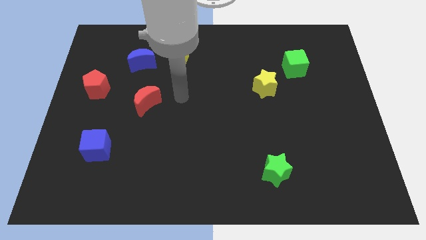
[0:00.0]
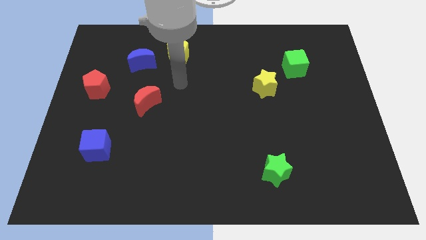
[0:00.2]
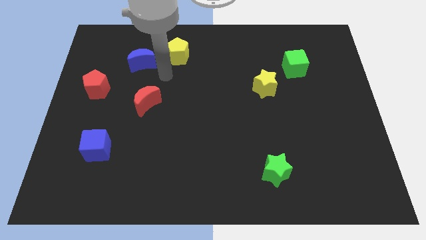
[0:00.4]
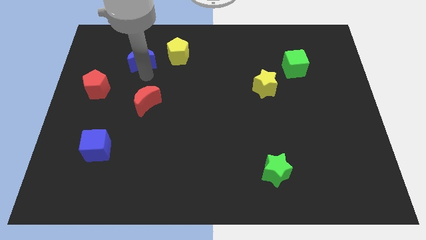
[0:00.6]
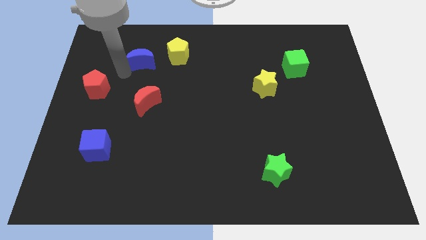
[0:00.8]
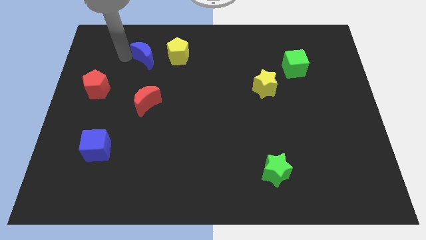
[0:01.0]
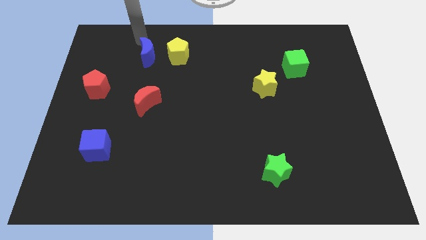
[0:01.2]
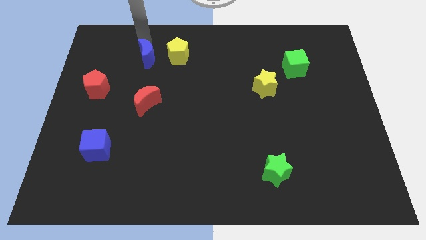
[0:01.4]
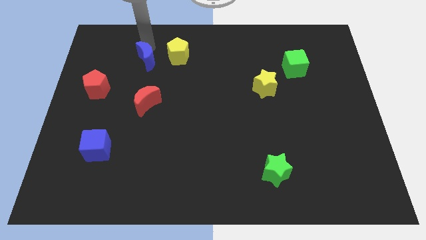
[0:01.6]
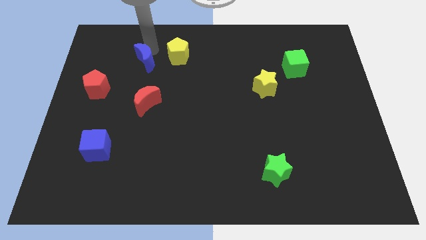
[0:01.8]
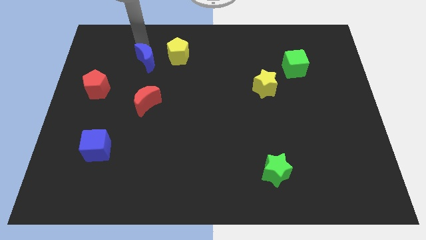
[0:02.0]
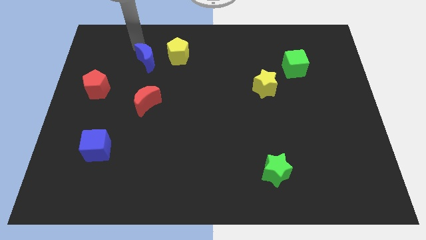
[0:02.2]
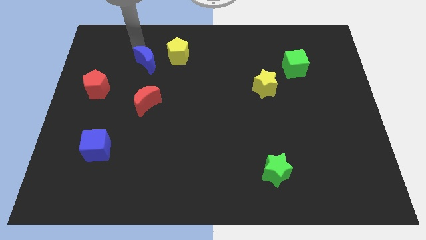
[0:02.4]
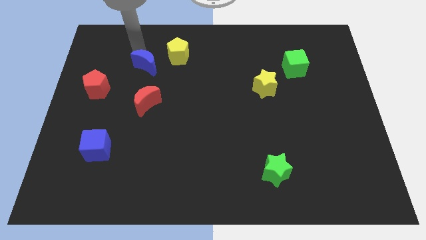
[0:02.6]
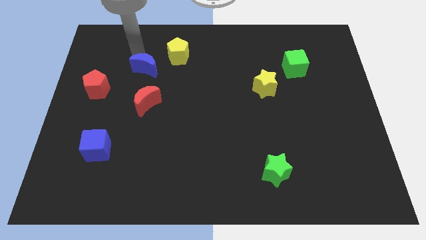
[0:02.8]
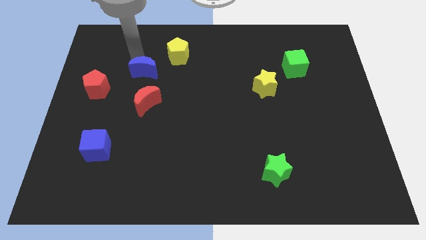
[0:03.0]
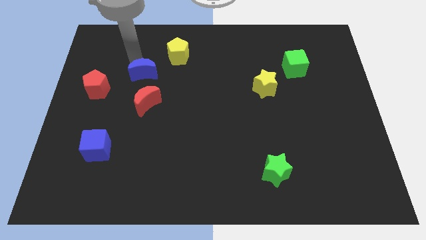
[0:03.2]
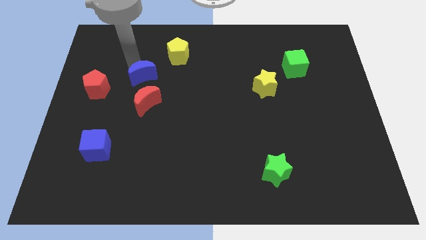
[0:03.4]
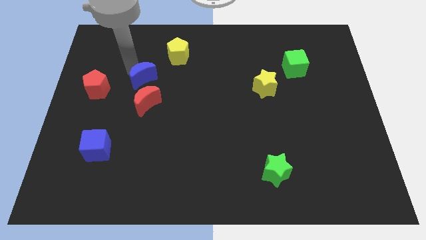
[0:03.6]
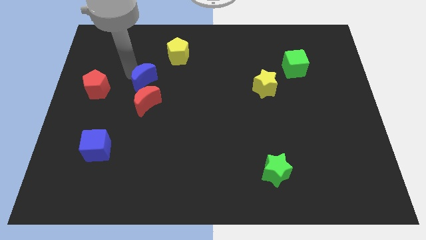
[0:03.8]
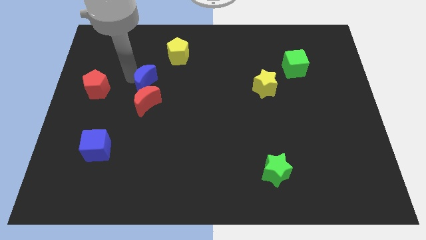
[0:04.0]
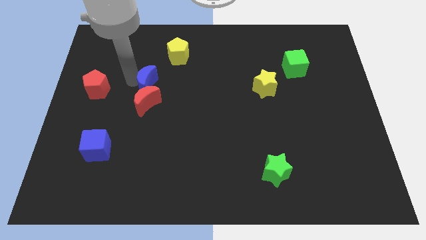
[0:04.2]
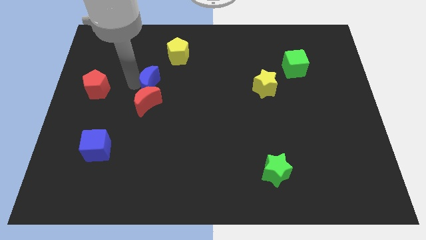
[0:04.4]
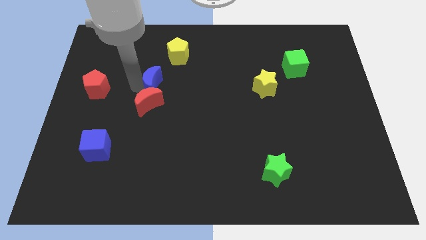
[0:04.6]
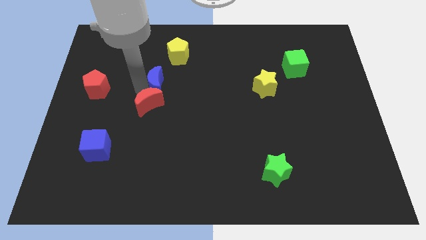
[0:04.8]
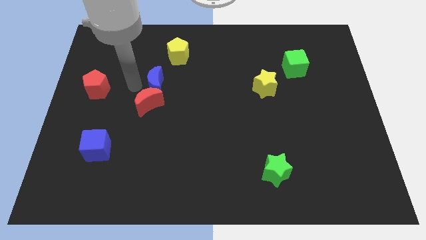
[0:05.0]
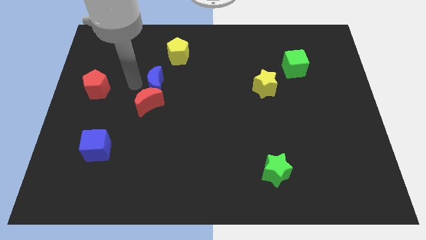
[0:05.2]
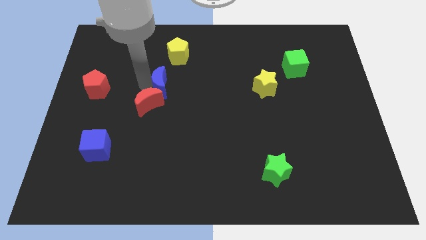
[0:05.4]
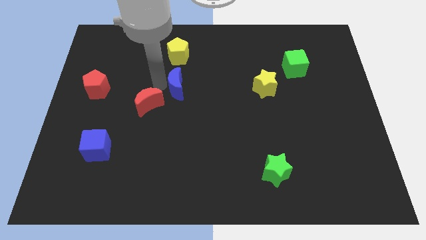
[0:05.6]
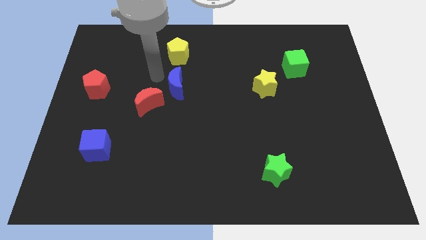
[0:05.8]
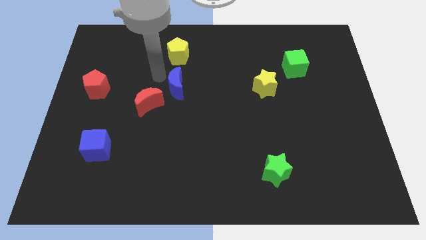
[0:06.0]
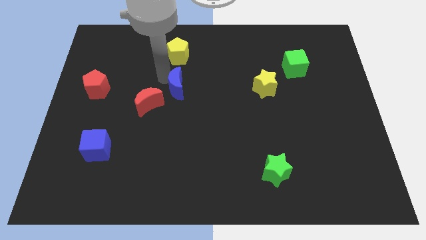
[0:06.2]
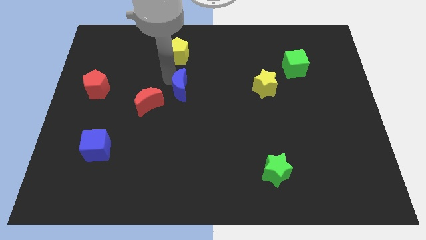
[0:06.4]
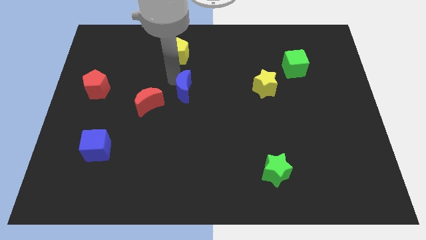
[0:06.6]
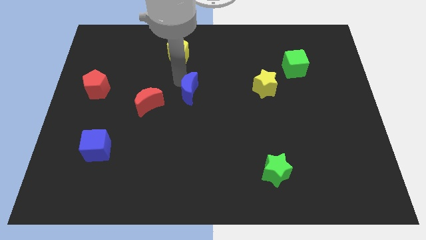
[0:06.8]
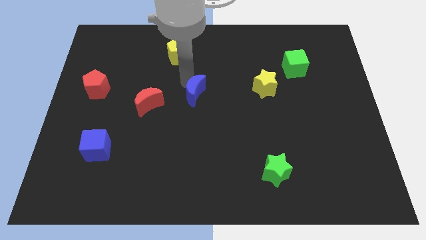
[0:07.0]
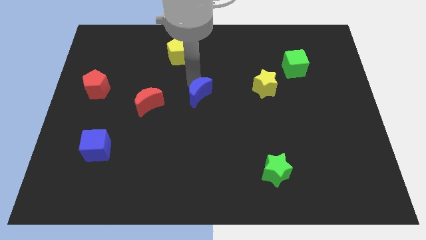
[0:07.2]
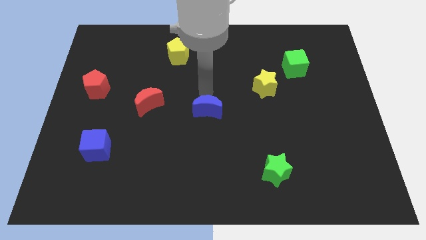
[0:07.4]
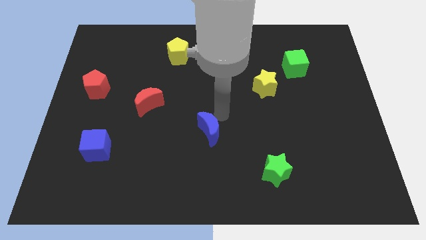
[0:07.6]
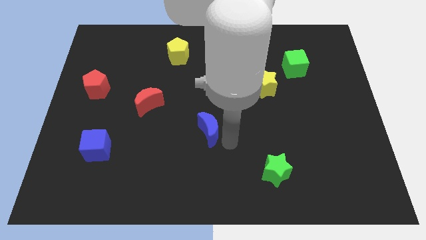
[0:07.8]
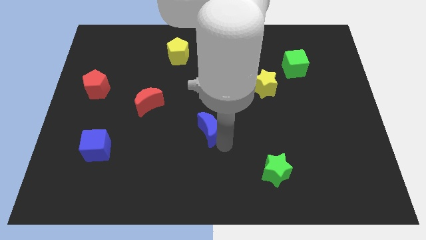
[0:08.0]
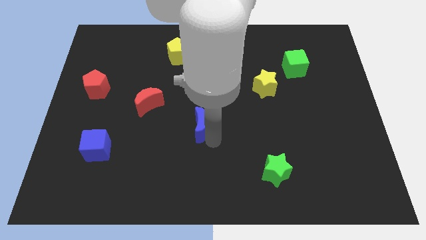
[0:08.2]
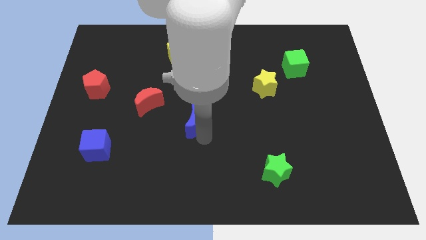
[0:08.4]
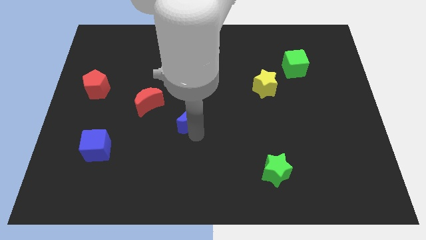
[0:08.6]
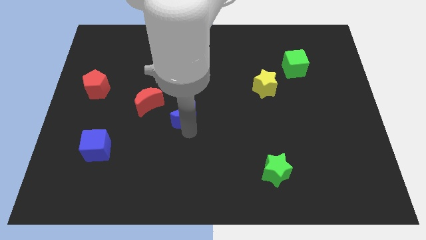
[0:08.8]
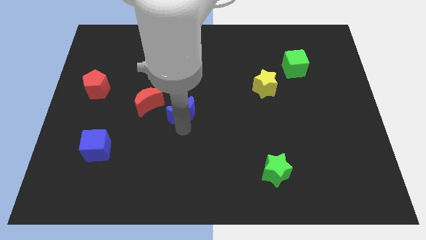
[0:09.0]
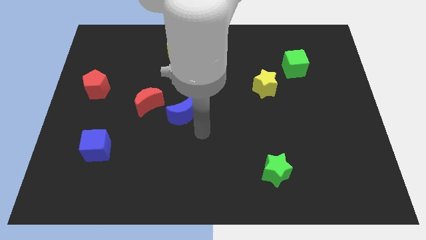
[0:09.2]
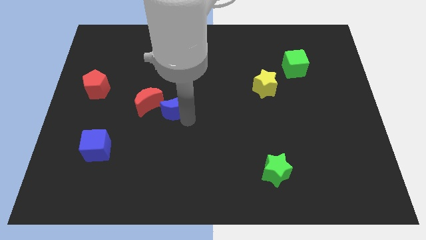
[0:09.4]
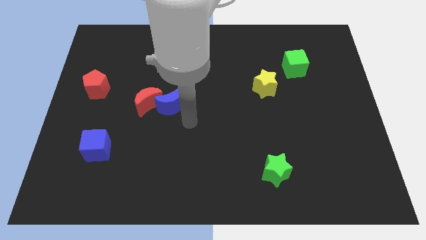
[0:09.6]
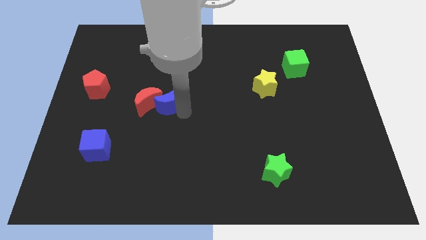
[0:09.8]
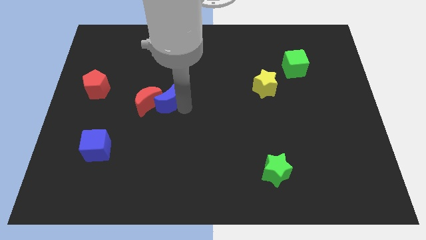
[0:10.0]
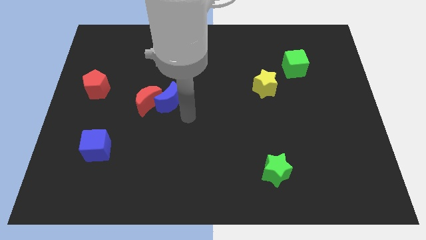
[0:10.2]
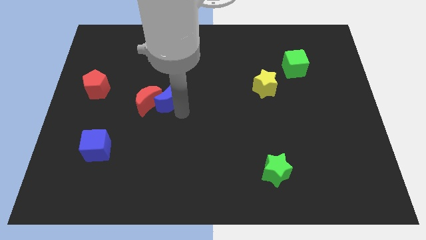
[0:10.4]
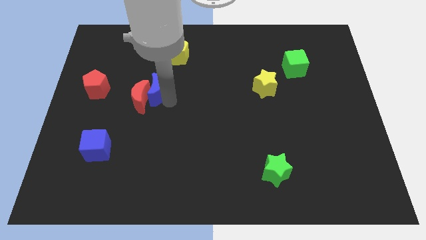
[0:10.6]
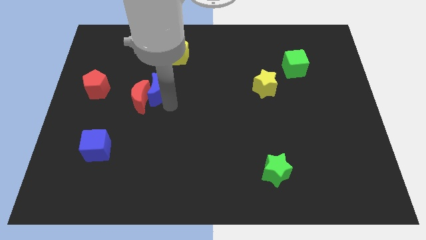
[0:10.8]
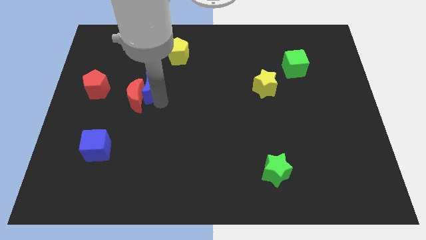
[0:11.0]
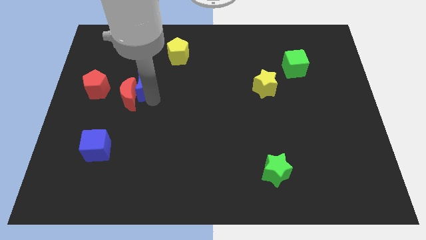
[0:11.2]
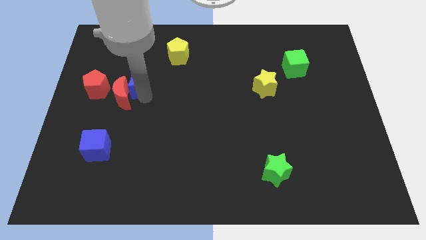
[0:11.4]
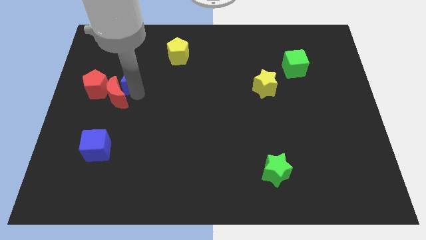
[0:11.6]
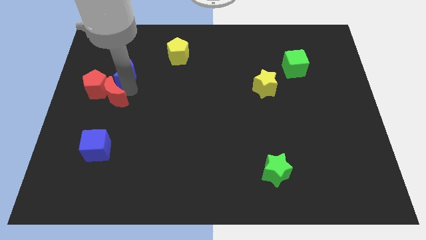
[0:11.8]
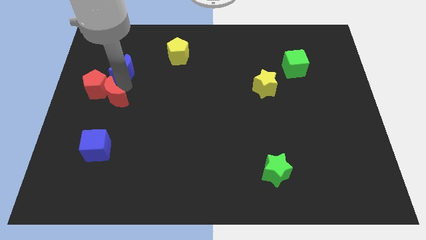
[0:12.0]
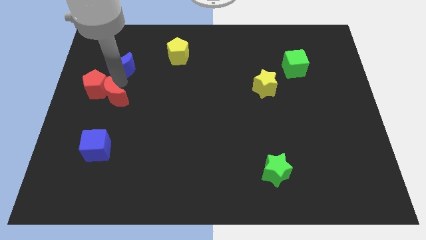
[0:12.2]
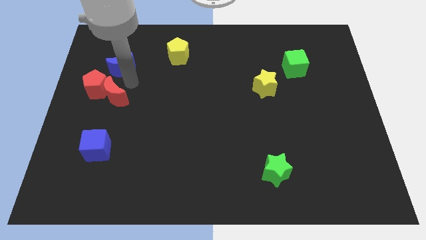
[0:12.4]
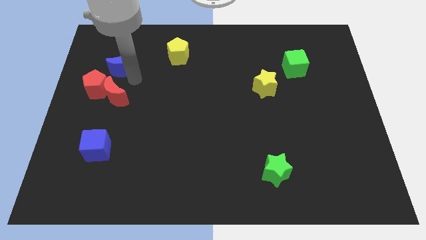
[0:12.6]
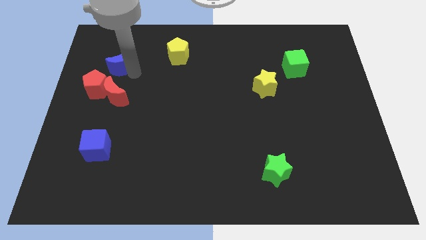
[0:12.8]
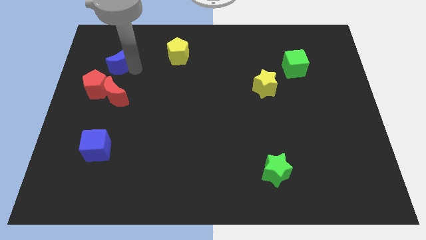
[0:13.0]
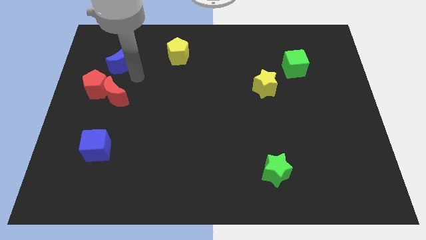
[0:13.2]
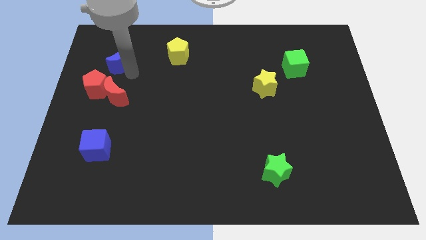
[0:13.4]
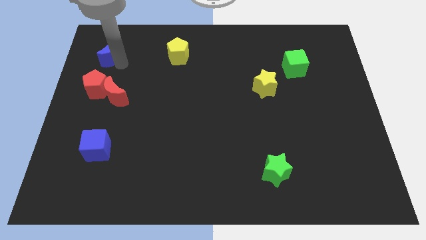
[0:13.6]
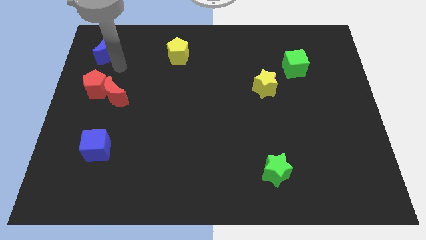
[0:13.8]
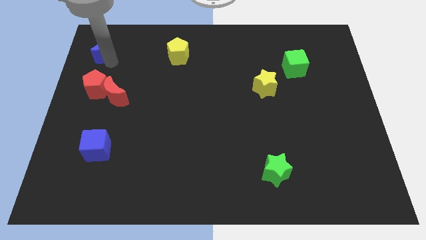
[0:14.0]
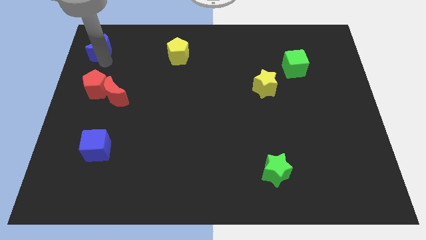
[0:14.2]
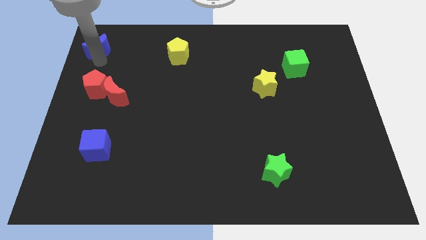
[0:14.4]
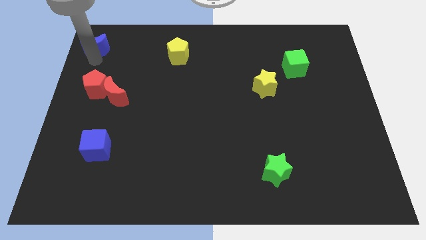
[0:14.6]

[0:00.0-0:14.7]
move the blue moon to the upper left corner
